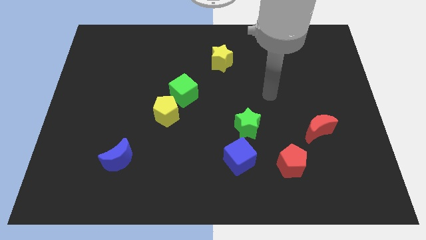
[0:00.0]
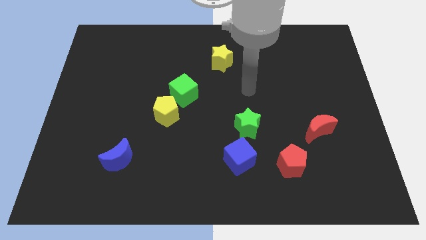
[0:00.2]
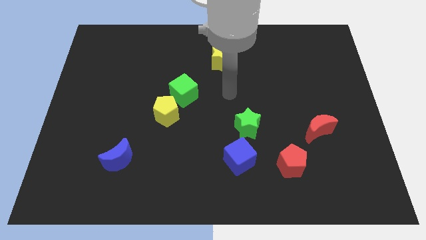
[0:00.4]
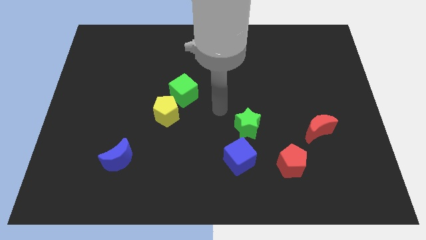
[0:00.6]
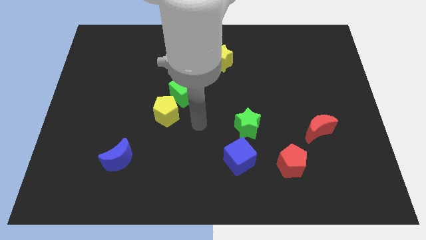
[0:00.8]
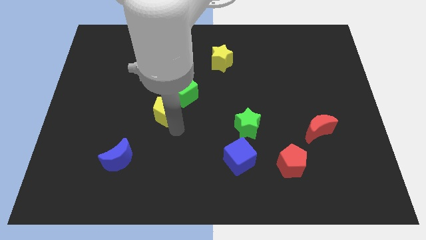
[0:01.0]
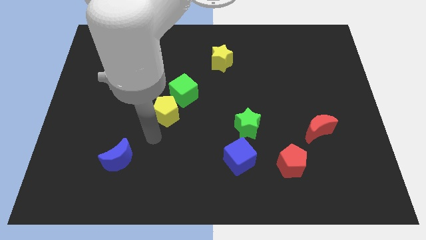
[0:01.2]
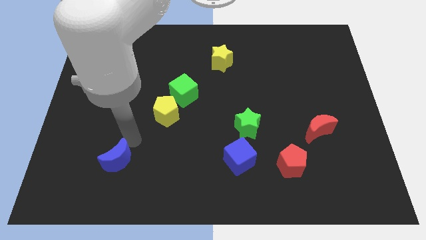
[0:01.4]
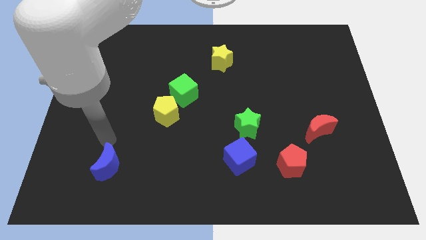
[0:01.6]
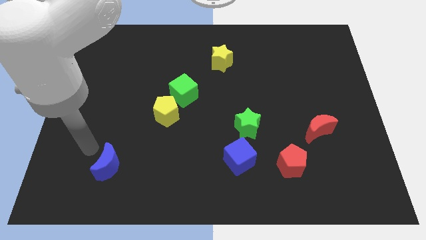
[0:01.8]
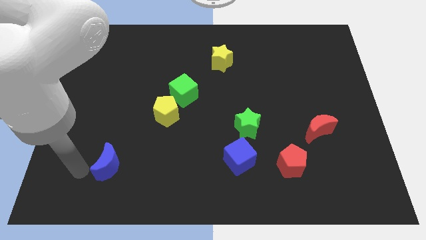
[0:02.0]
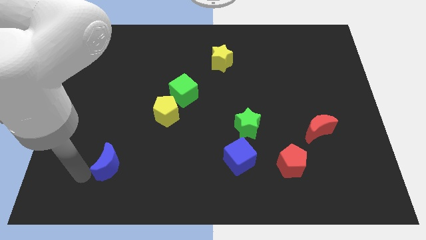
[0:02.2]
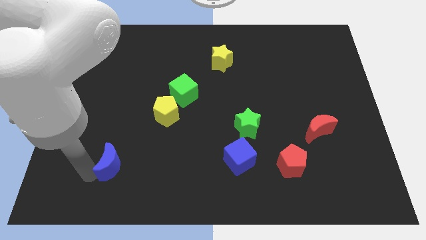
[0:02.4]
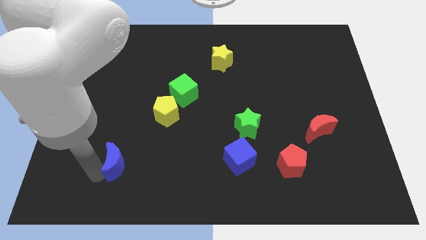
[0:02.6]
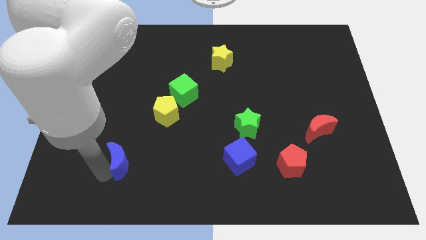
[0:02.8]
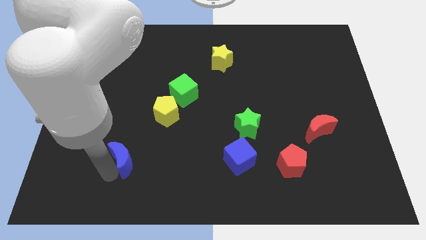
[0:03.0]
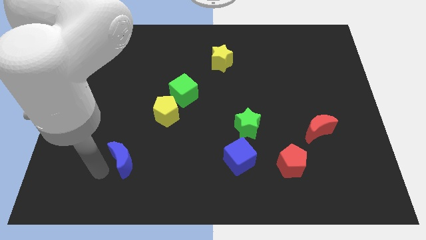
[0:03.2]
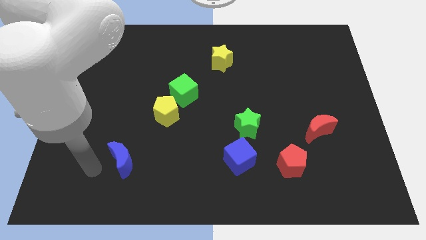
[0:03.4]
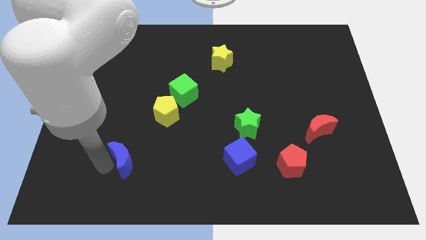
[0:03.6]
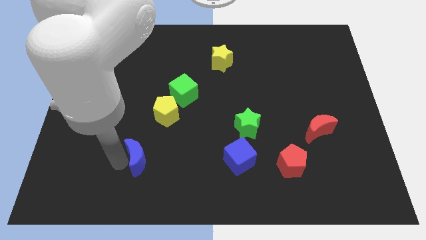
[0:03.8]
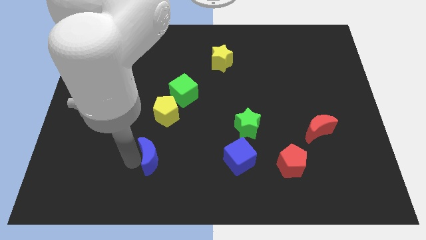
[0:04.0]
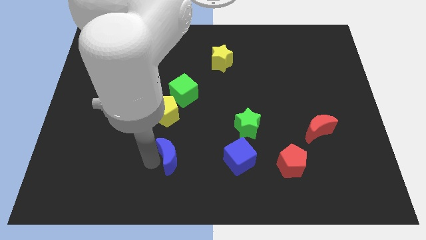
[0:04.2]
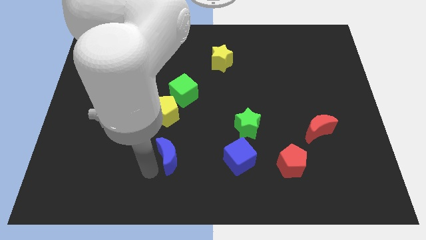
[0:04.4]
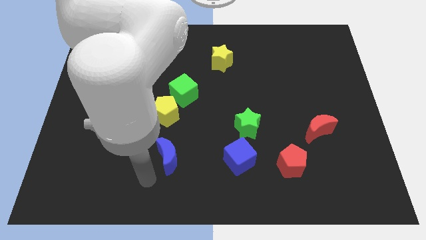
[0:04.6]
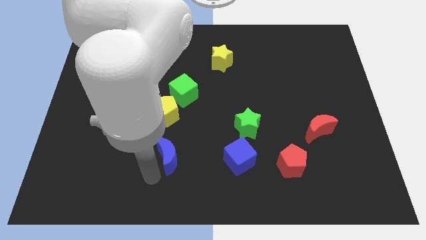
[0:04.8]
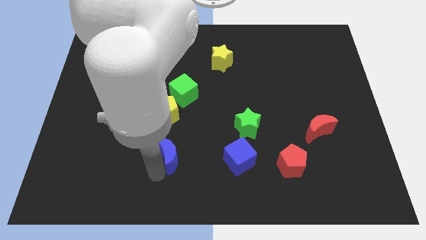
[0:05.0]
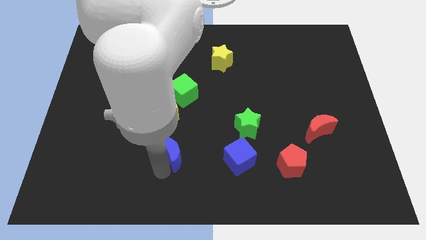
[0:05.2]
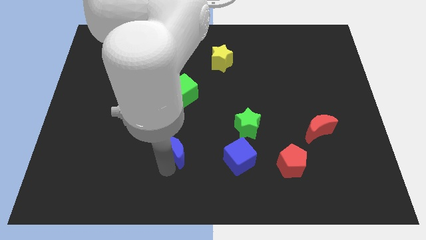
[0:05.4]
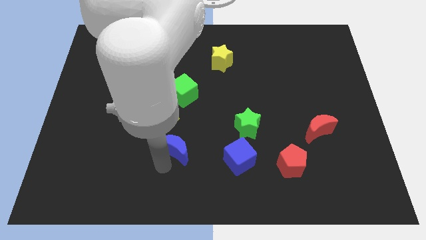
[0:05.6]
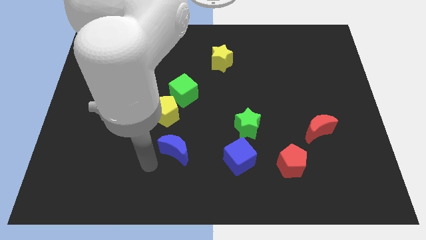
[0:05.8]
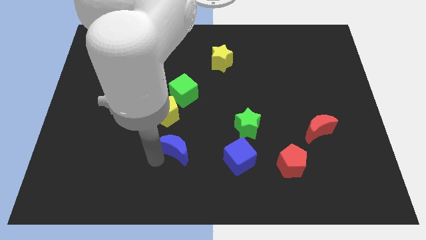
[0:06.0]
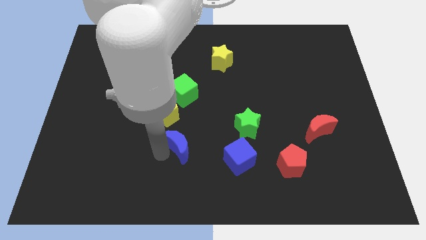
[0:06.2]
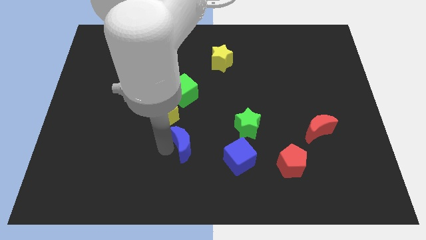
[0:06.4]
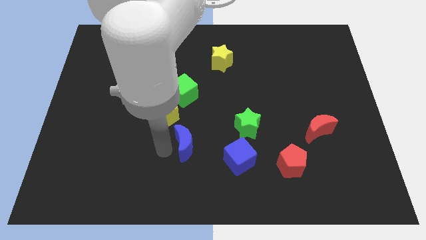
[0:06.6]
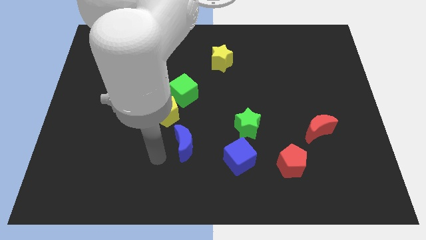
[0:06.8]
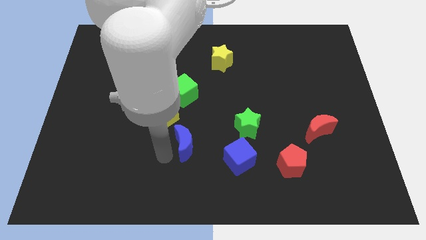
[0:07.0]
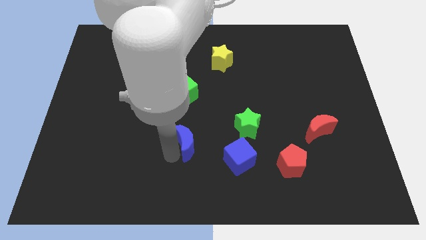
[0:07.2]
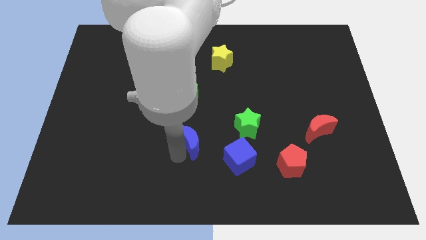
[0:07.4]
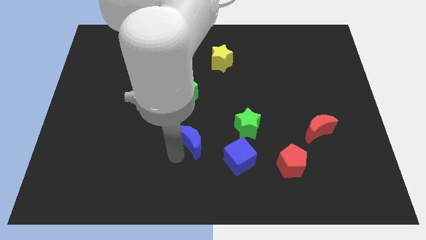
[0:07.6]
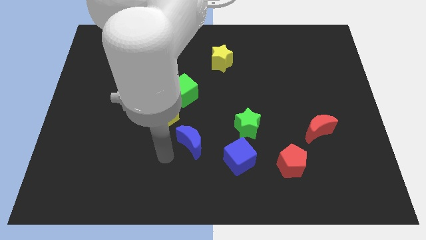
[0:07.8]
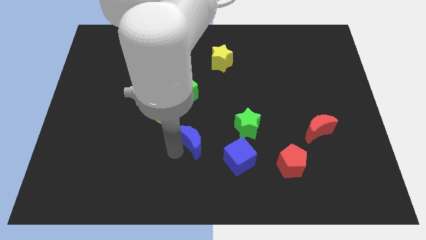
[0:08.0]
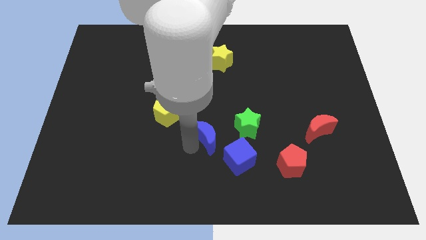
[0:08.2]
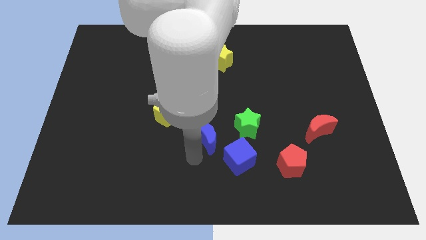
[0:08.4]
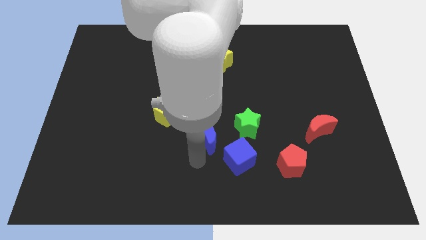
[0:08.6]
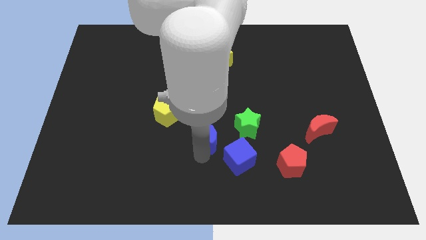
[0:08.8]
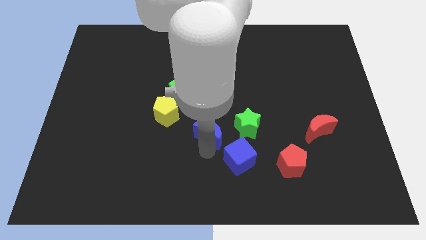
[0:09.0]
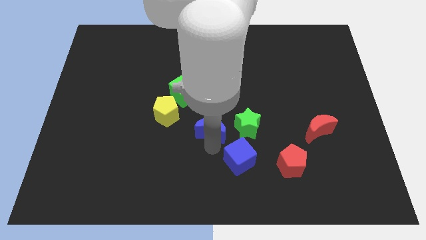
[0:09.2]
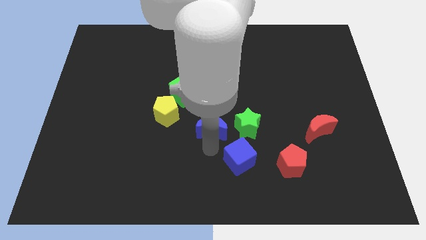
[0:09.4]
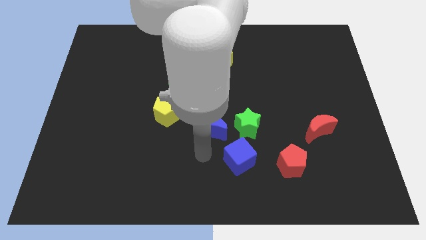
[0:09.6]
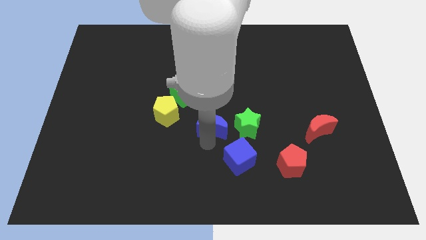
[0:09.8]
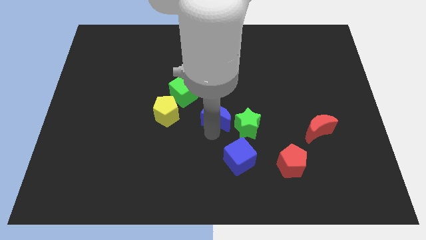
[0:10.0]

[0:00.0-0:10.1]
slide the blue moon diagonally upwards and right

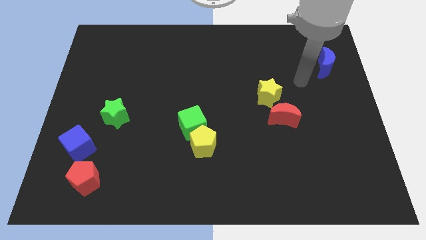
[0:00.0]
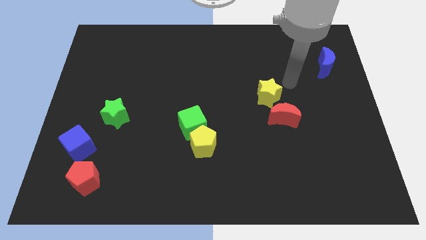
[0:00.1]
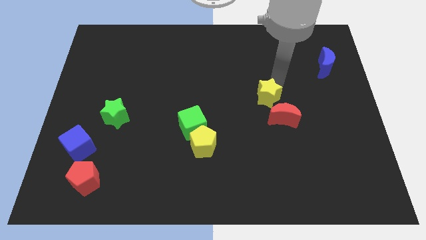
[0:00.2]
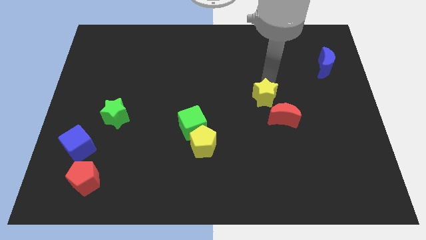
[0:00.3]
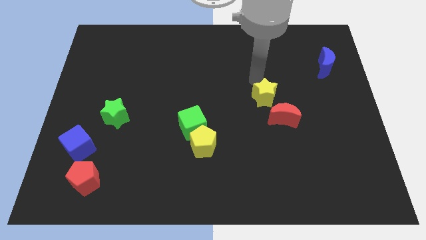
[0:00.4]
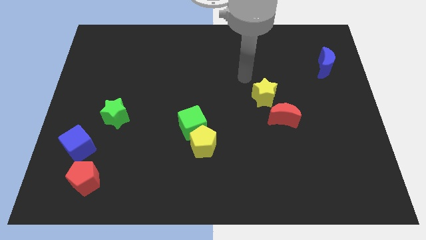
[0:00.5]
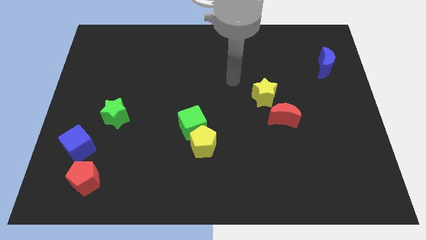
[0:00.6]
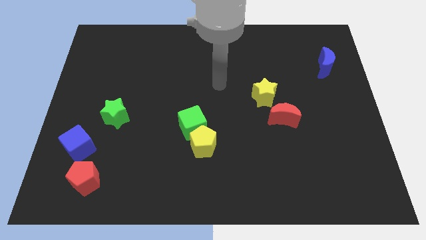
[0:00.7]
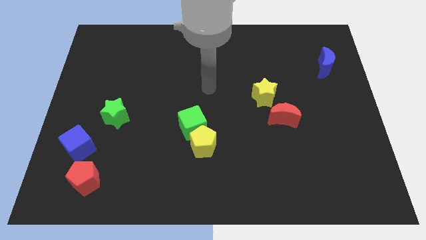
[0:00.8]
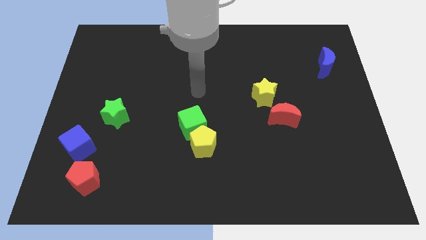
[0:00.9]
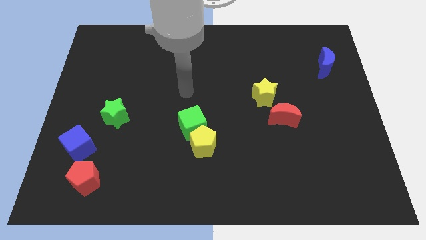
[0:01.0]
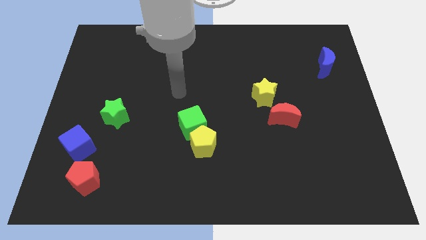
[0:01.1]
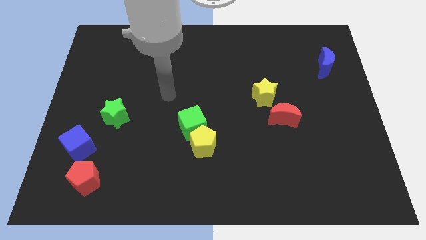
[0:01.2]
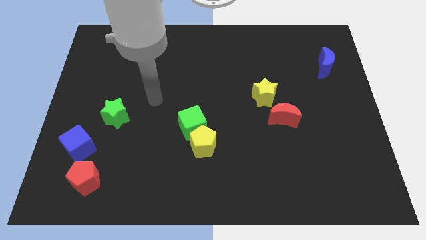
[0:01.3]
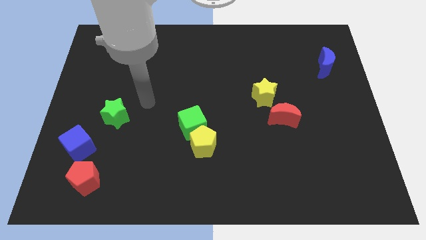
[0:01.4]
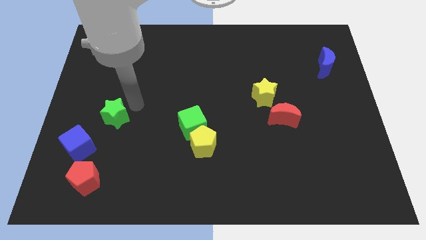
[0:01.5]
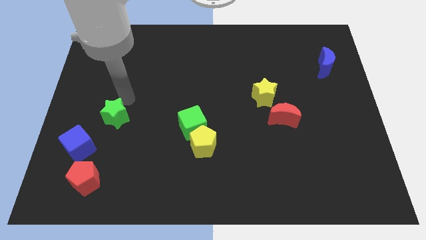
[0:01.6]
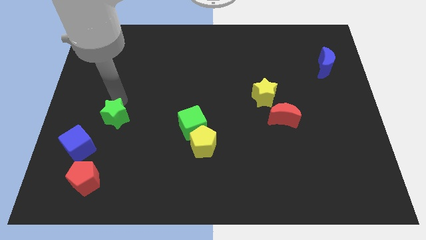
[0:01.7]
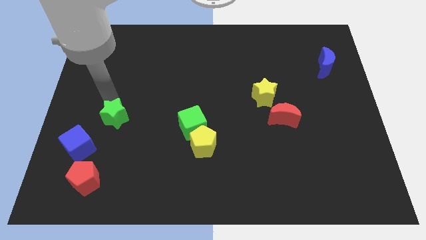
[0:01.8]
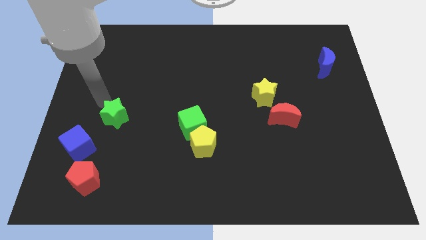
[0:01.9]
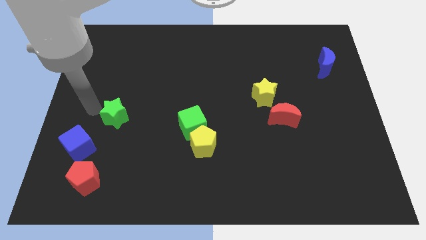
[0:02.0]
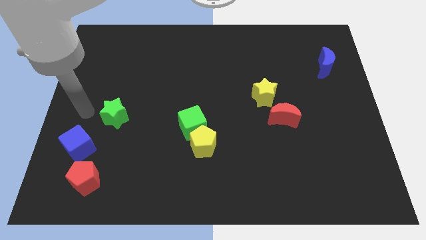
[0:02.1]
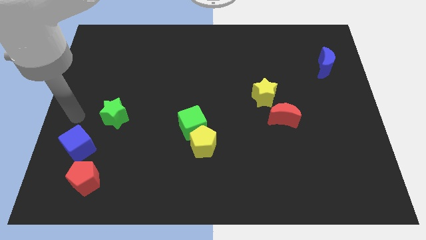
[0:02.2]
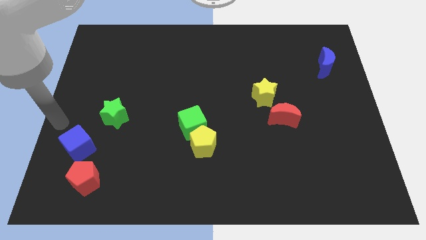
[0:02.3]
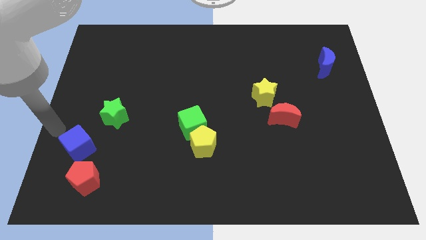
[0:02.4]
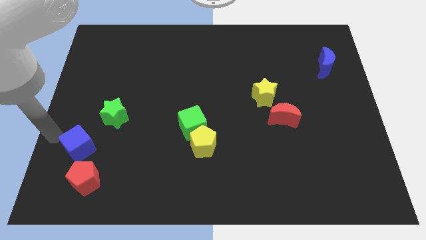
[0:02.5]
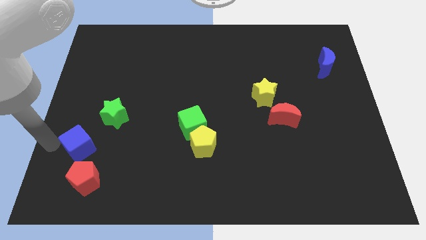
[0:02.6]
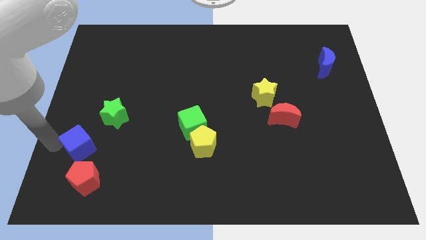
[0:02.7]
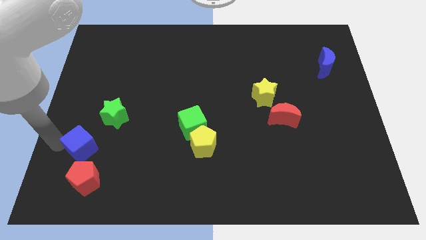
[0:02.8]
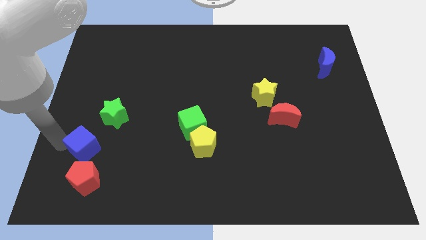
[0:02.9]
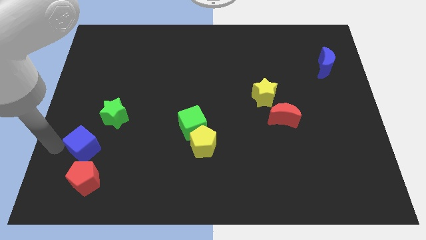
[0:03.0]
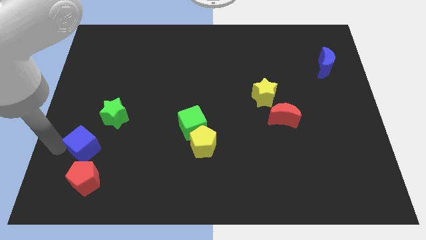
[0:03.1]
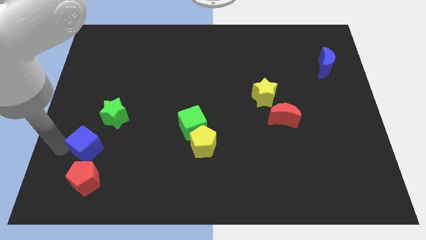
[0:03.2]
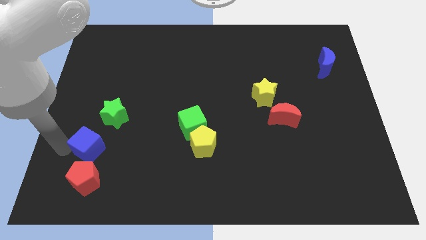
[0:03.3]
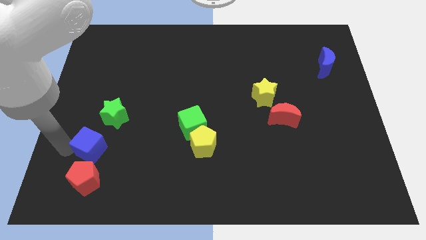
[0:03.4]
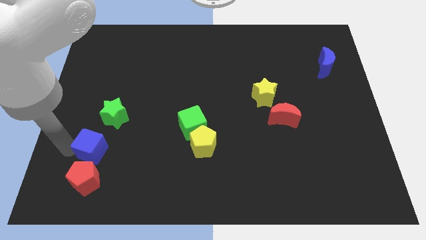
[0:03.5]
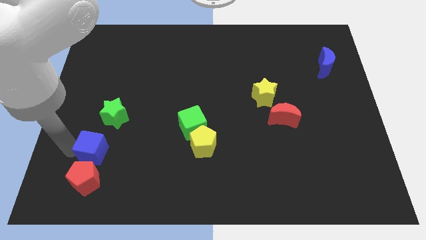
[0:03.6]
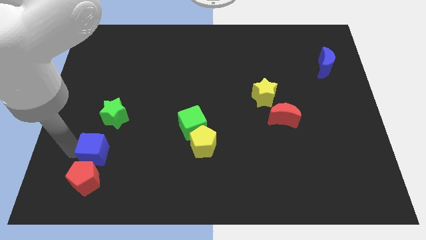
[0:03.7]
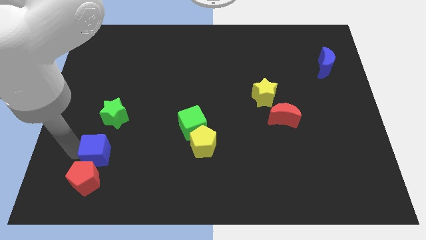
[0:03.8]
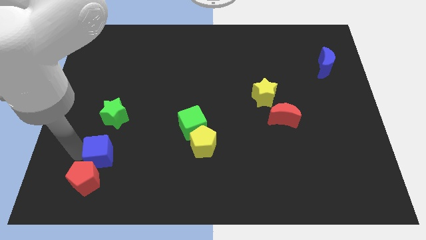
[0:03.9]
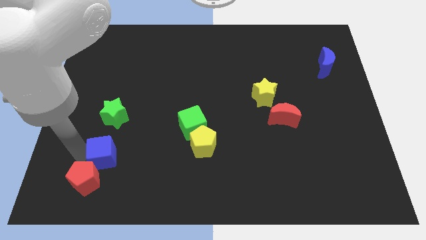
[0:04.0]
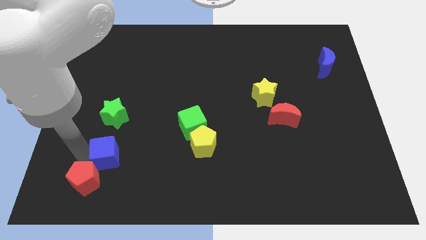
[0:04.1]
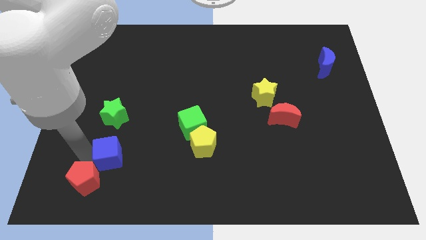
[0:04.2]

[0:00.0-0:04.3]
push the blue cube somewhat right
